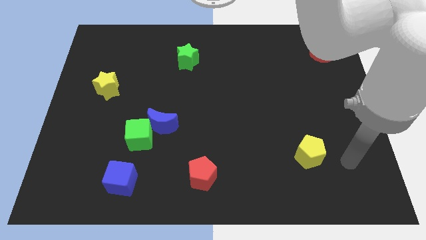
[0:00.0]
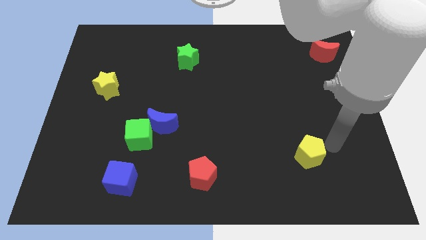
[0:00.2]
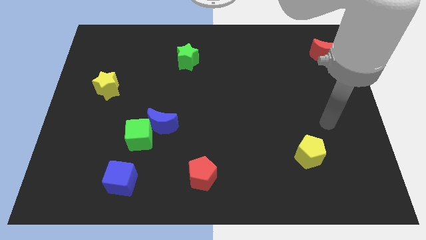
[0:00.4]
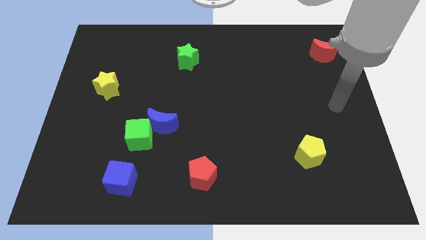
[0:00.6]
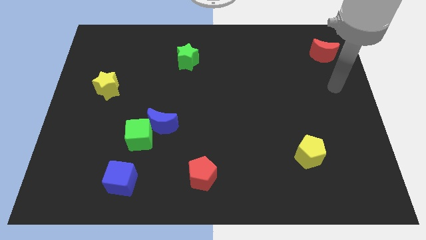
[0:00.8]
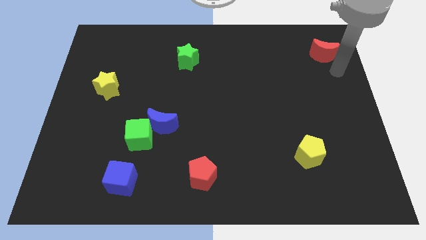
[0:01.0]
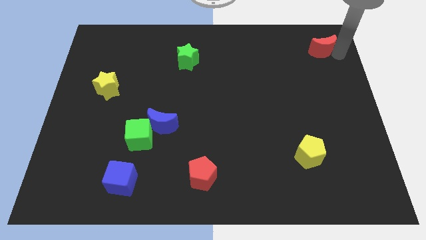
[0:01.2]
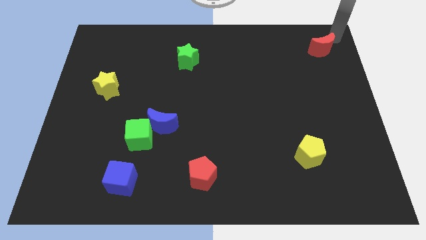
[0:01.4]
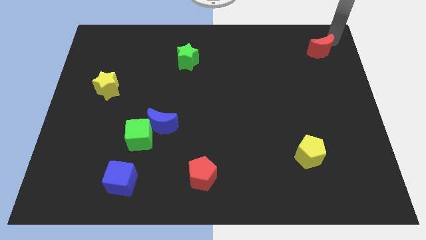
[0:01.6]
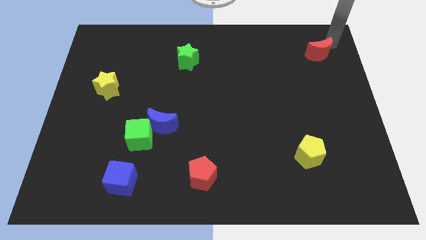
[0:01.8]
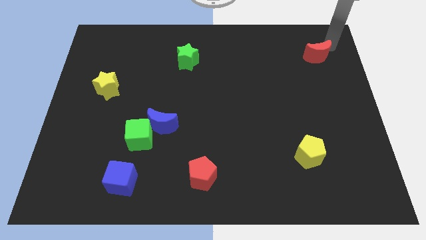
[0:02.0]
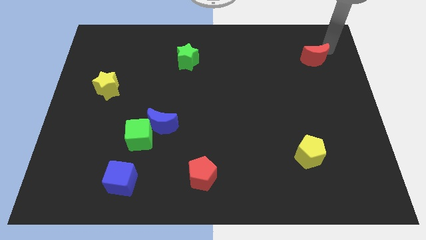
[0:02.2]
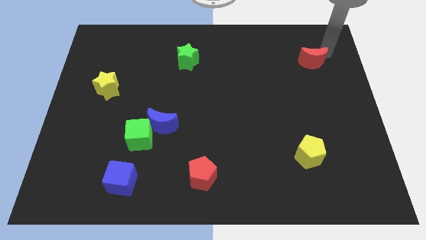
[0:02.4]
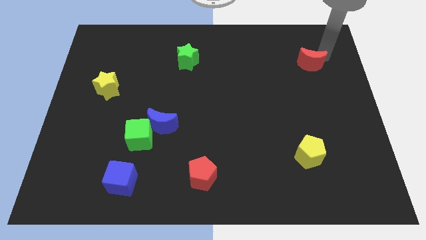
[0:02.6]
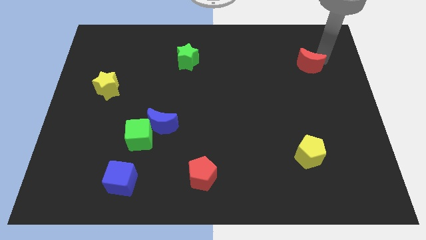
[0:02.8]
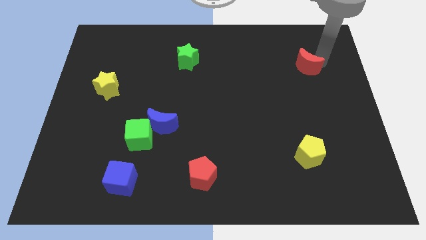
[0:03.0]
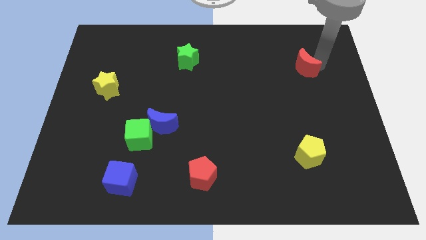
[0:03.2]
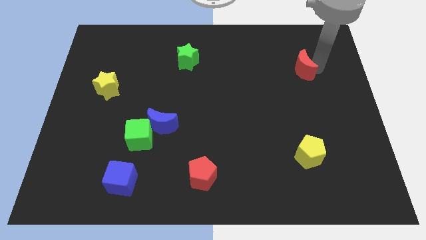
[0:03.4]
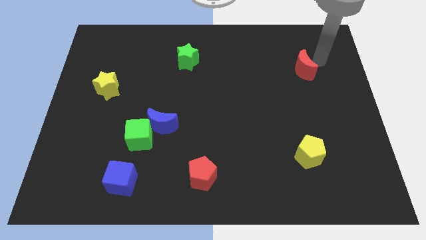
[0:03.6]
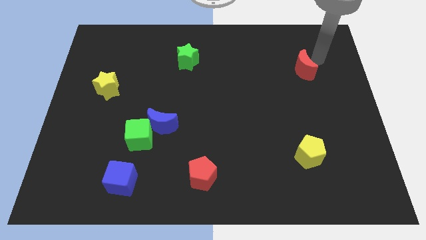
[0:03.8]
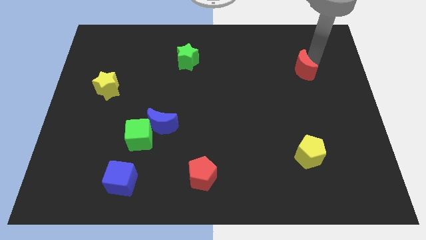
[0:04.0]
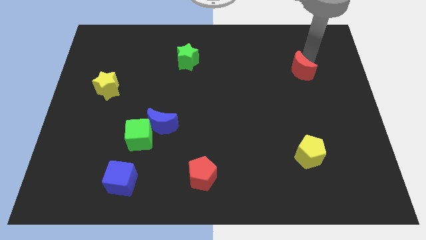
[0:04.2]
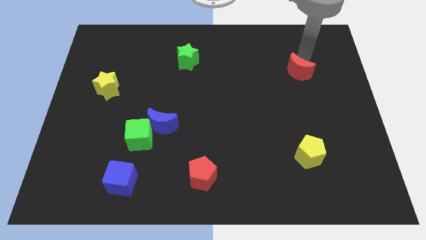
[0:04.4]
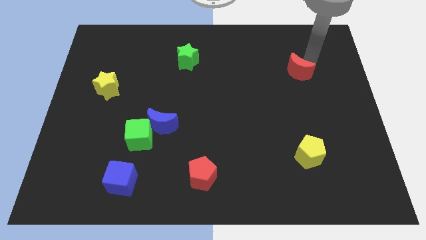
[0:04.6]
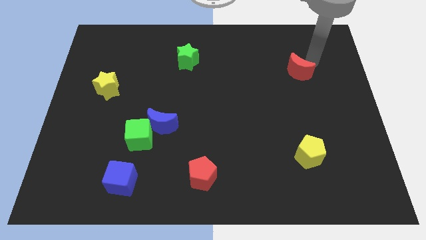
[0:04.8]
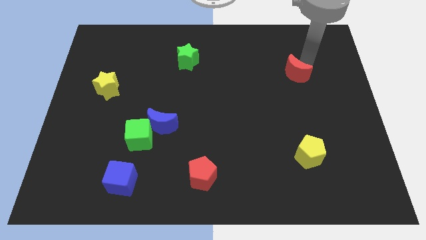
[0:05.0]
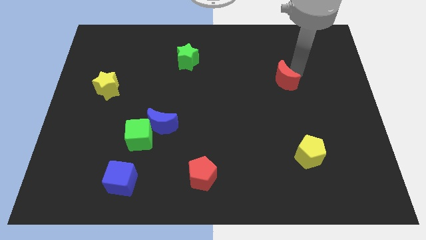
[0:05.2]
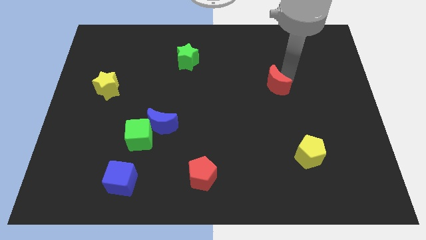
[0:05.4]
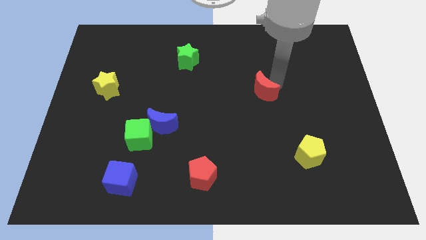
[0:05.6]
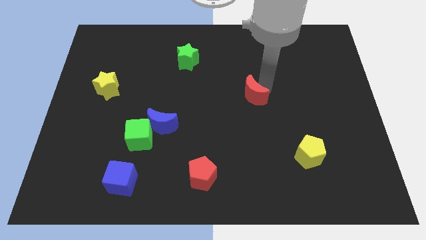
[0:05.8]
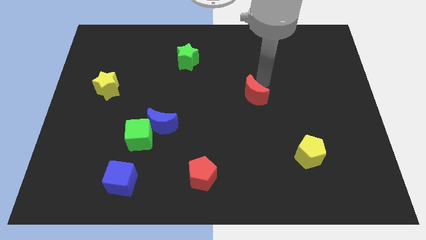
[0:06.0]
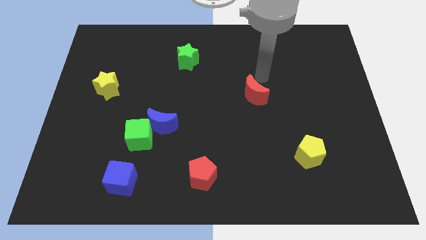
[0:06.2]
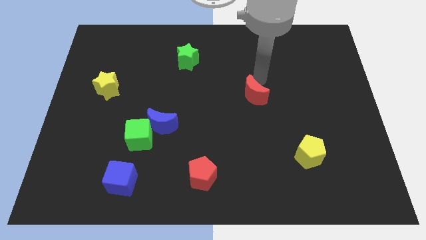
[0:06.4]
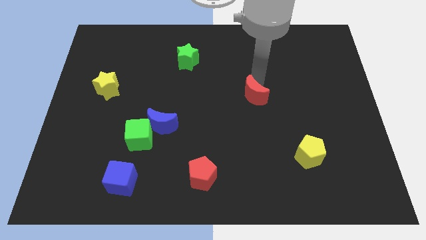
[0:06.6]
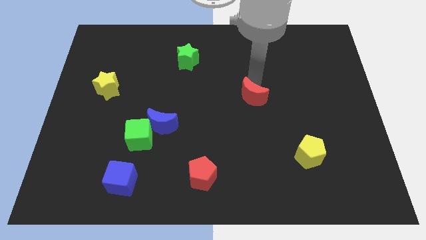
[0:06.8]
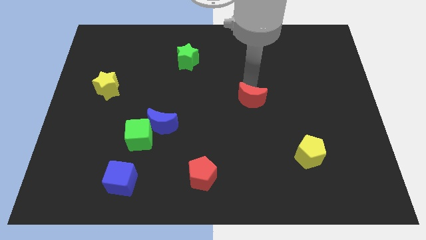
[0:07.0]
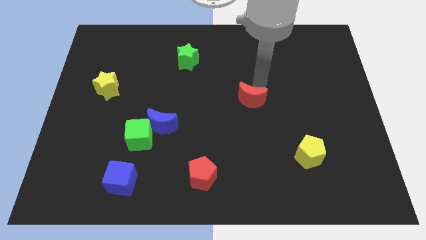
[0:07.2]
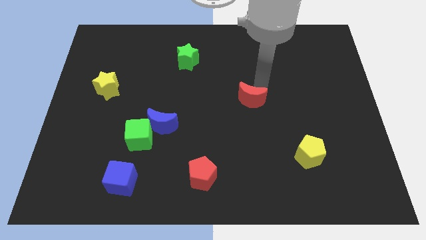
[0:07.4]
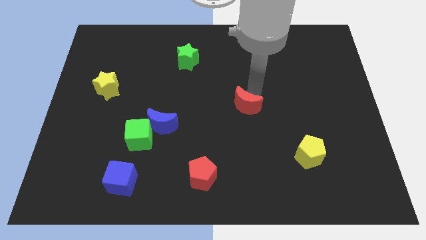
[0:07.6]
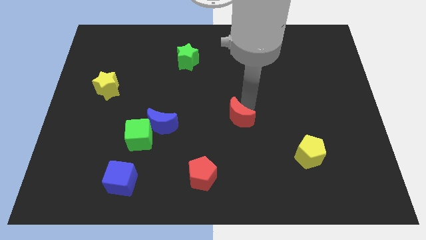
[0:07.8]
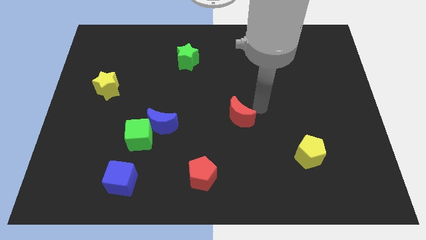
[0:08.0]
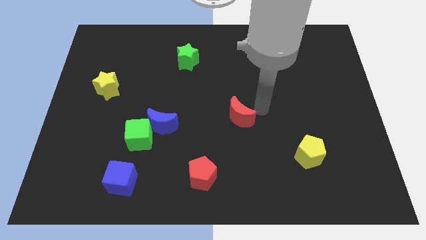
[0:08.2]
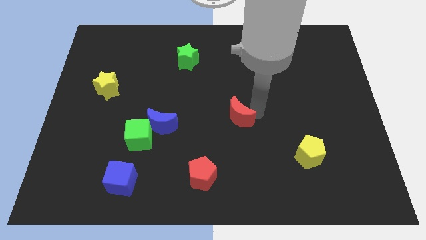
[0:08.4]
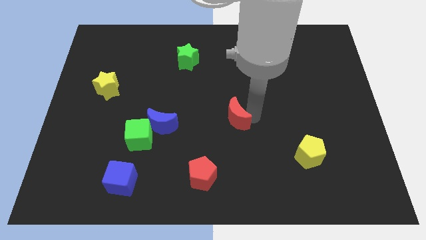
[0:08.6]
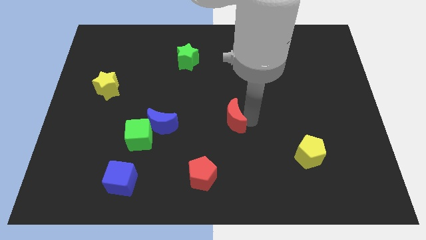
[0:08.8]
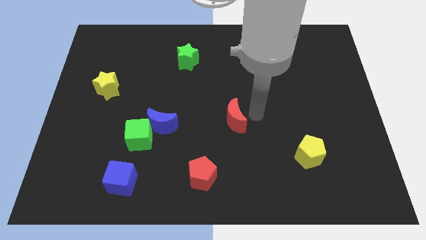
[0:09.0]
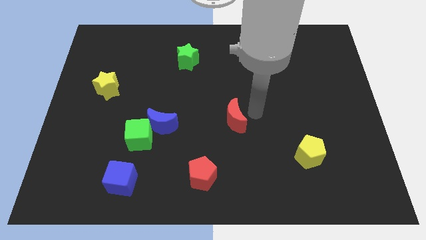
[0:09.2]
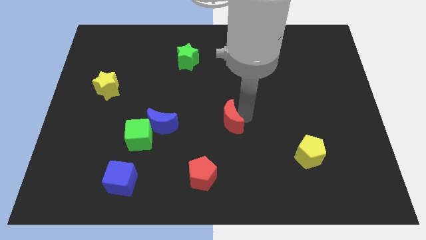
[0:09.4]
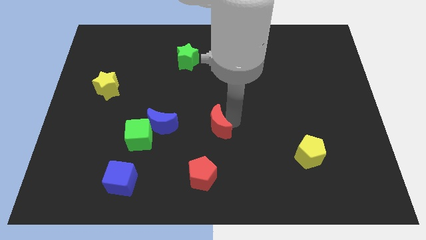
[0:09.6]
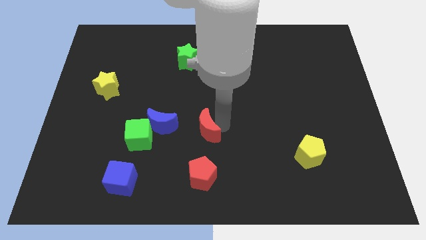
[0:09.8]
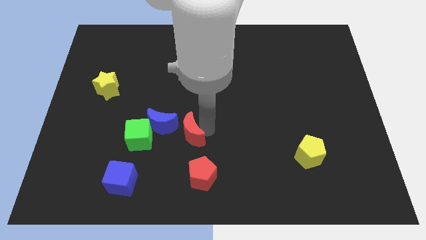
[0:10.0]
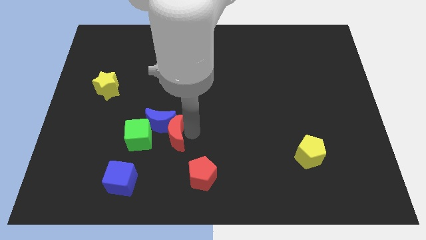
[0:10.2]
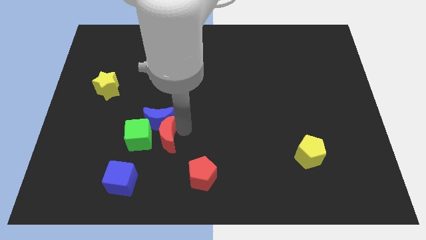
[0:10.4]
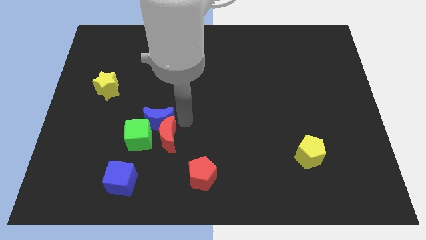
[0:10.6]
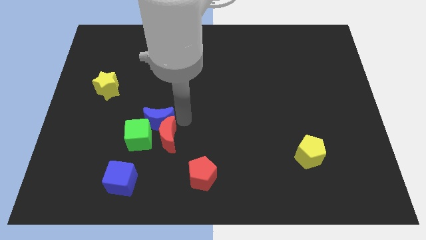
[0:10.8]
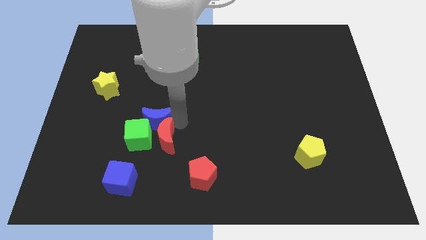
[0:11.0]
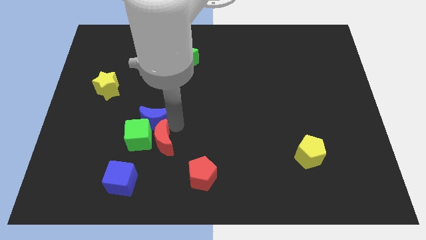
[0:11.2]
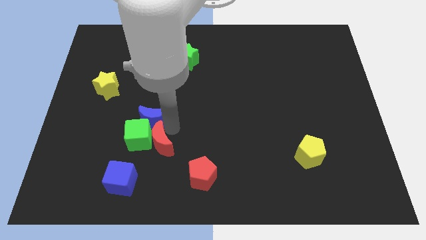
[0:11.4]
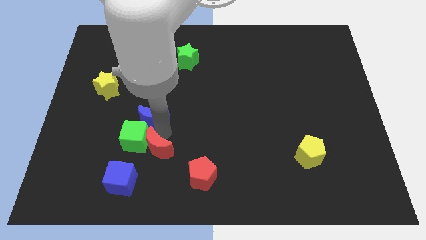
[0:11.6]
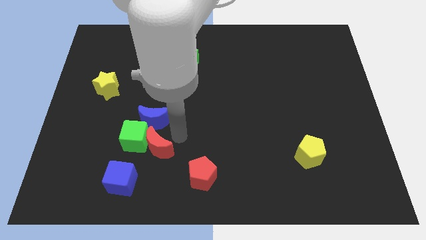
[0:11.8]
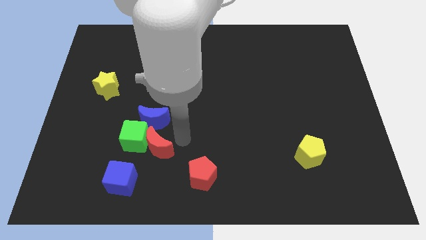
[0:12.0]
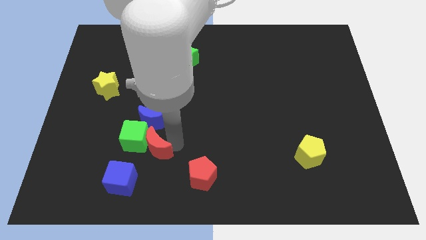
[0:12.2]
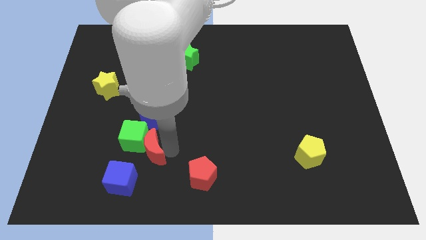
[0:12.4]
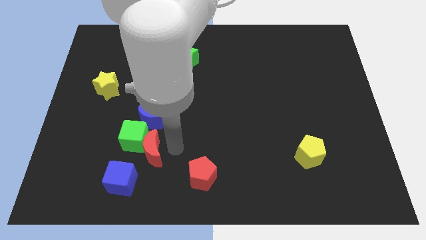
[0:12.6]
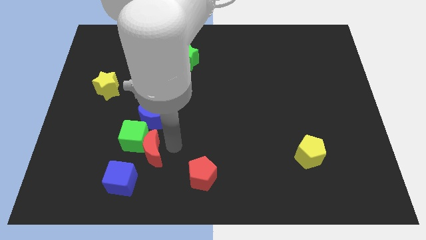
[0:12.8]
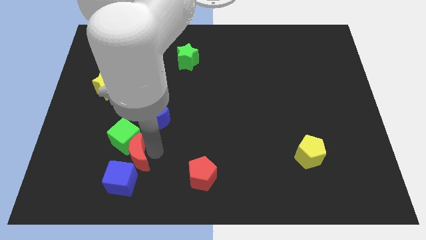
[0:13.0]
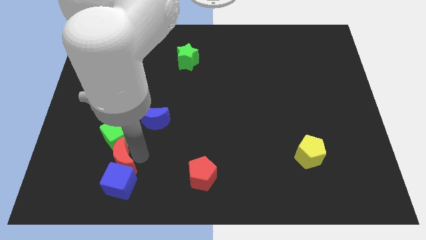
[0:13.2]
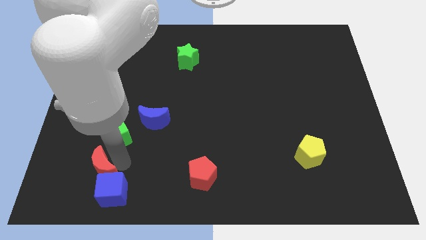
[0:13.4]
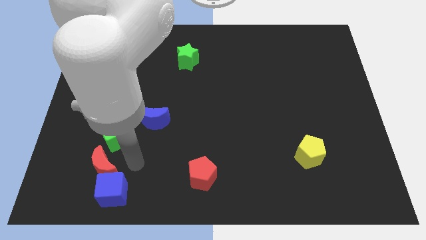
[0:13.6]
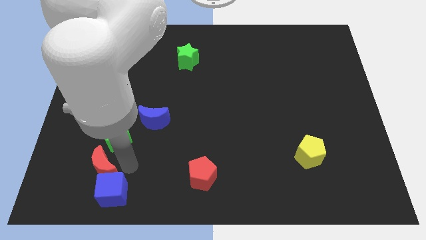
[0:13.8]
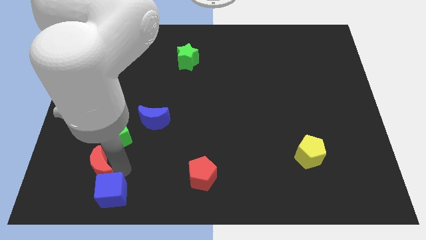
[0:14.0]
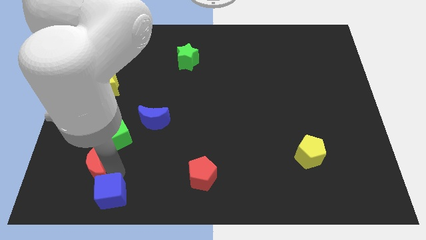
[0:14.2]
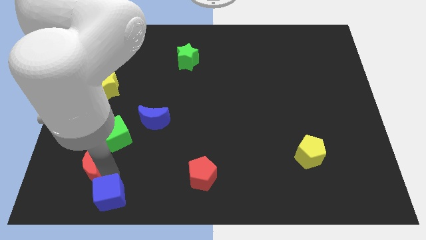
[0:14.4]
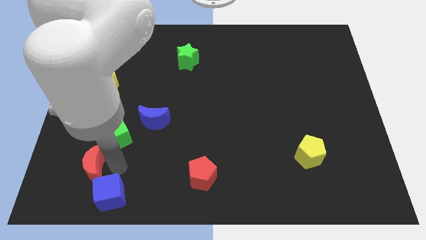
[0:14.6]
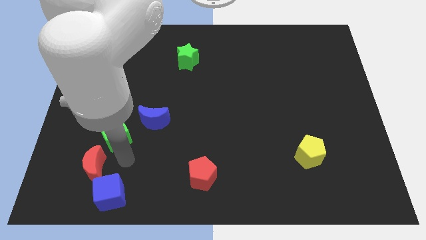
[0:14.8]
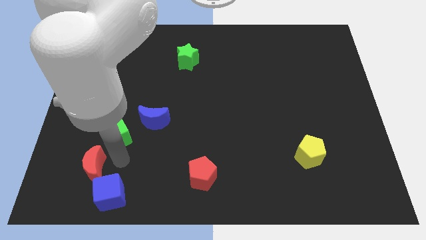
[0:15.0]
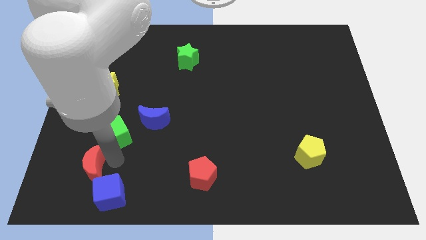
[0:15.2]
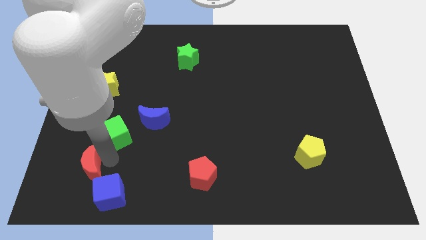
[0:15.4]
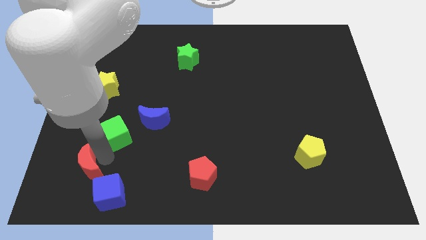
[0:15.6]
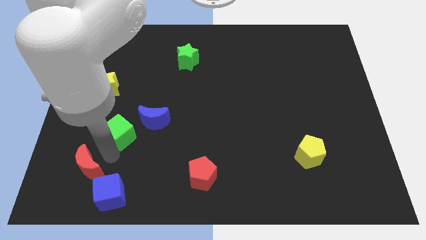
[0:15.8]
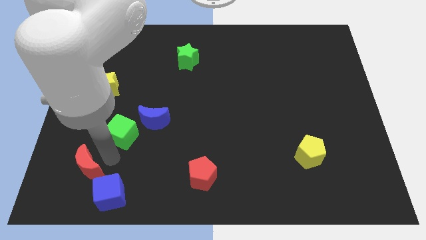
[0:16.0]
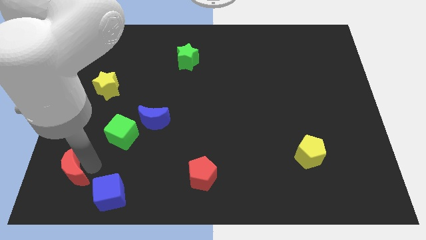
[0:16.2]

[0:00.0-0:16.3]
move the red moon to the bottom left
